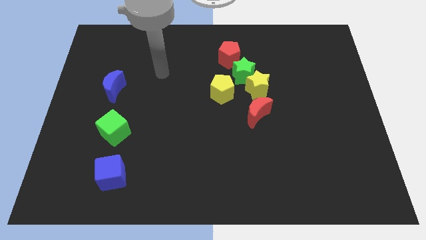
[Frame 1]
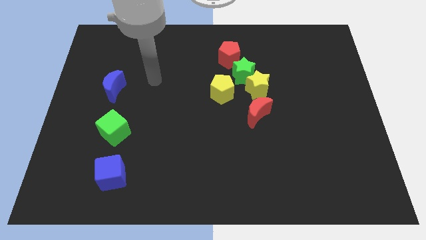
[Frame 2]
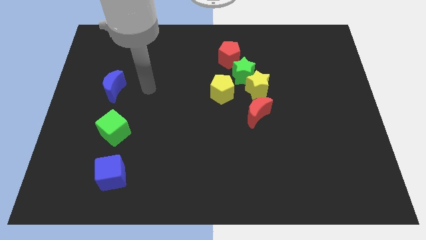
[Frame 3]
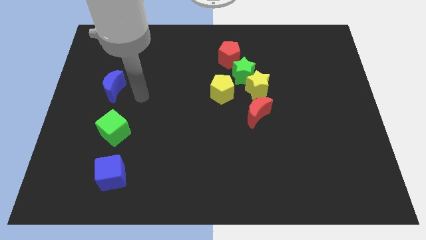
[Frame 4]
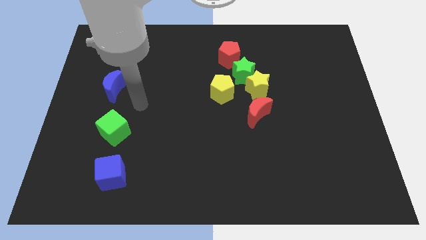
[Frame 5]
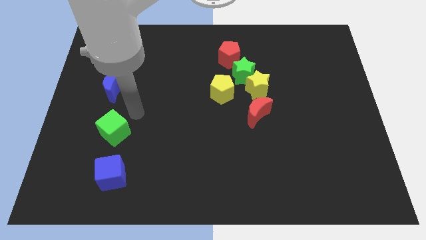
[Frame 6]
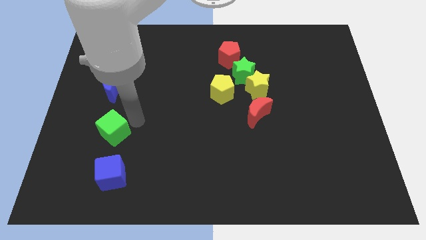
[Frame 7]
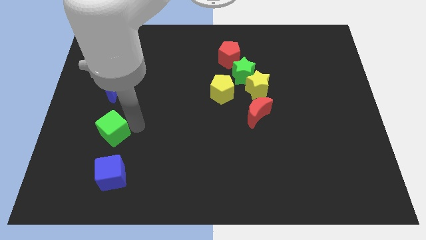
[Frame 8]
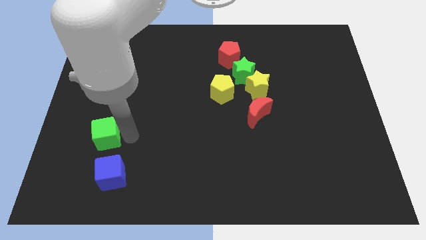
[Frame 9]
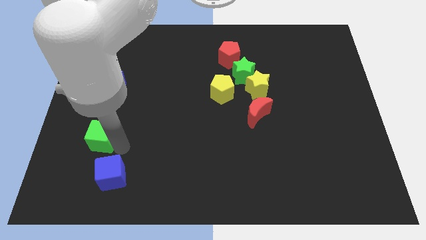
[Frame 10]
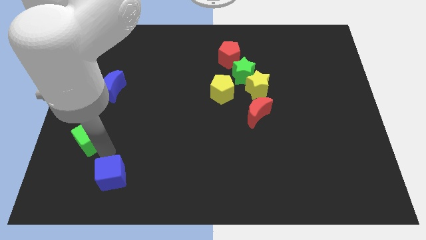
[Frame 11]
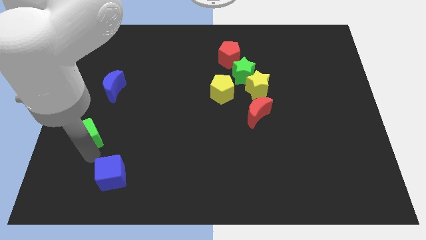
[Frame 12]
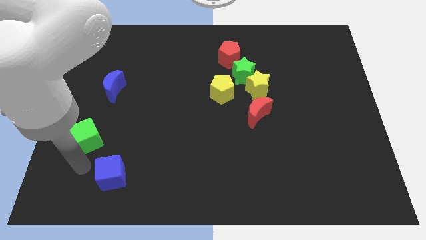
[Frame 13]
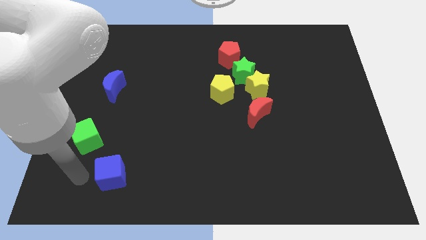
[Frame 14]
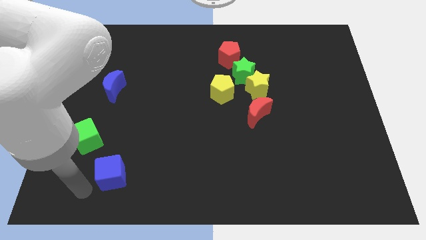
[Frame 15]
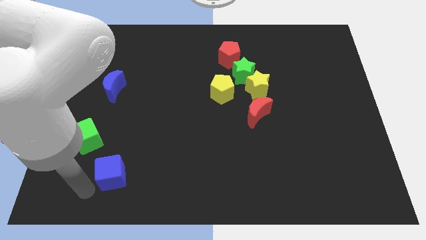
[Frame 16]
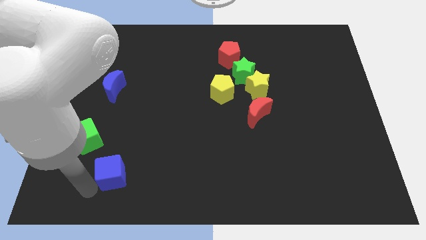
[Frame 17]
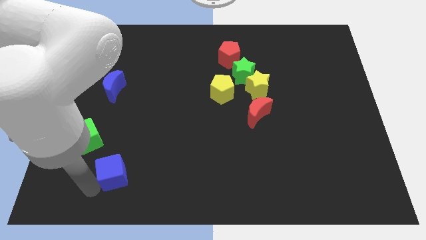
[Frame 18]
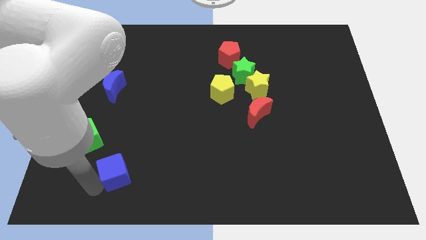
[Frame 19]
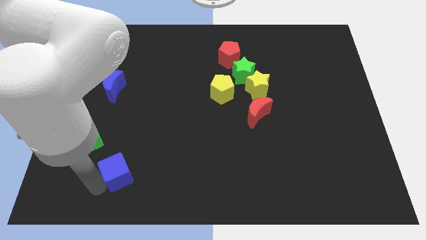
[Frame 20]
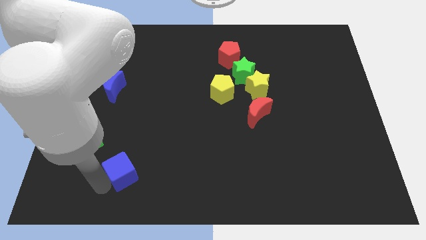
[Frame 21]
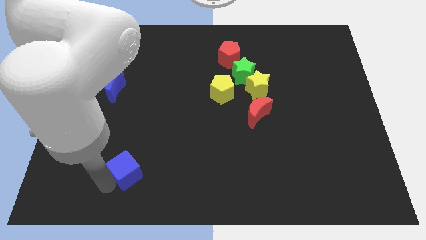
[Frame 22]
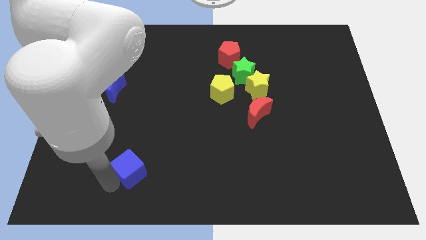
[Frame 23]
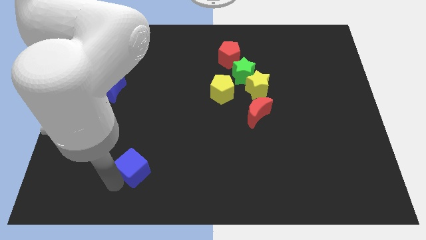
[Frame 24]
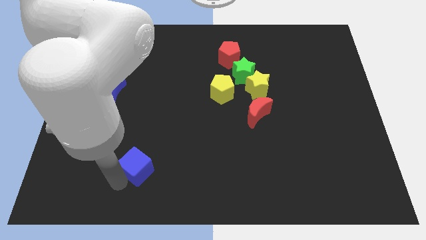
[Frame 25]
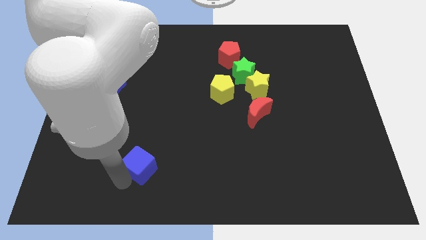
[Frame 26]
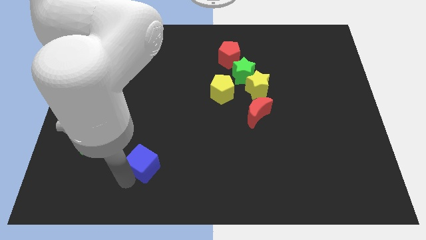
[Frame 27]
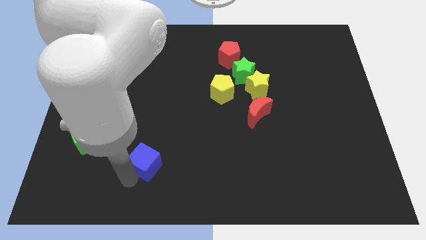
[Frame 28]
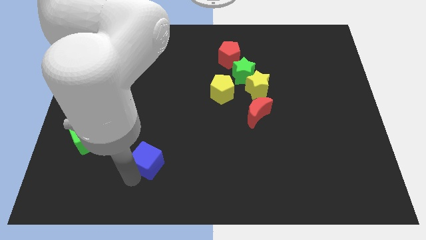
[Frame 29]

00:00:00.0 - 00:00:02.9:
move the blue cube diagonally upwards and to the right a bit

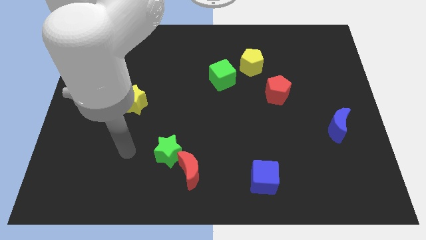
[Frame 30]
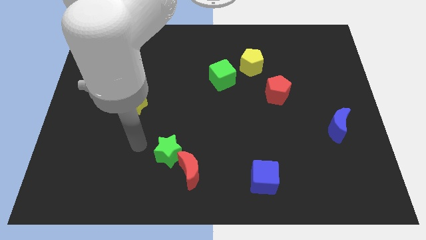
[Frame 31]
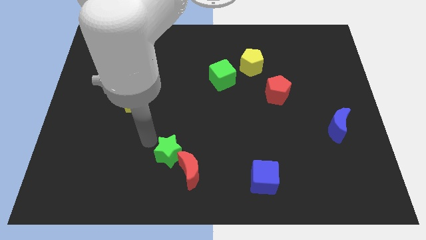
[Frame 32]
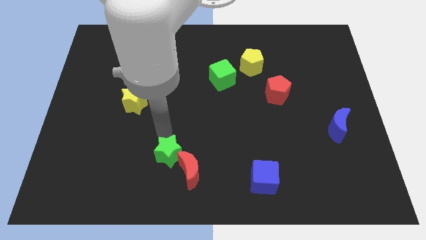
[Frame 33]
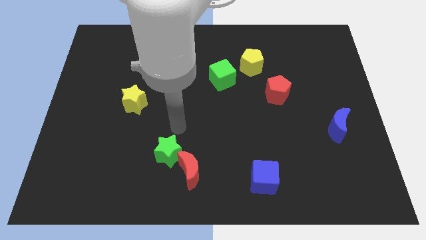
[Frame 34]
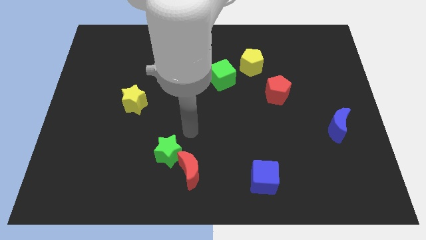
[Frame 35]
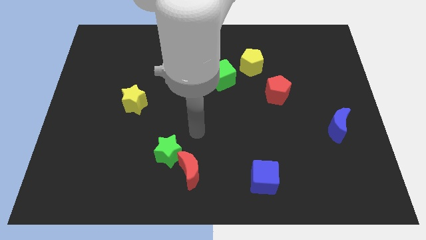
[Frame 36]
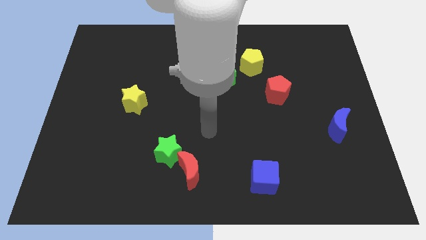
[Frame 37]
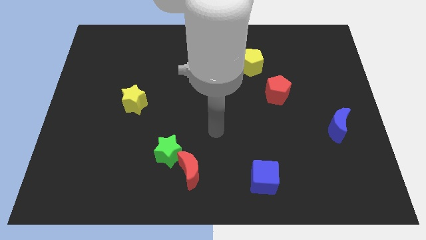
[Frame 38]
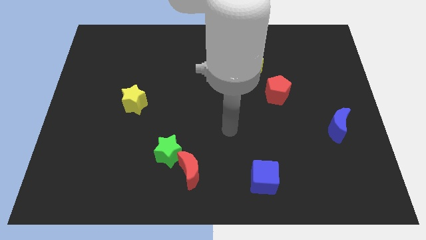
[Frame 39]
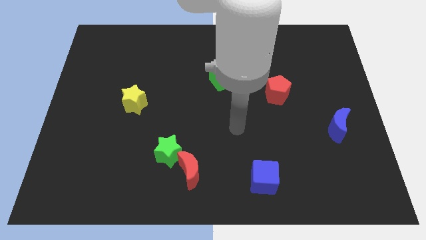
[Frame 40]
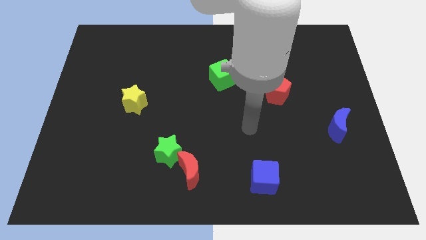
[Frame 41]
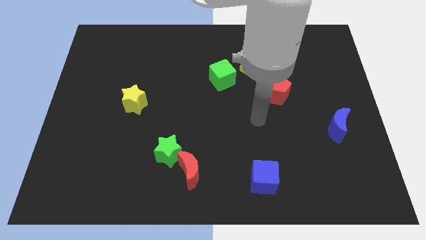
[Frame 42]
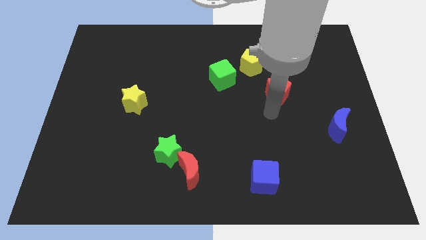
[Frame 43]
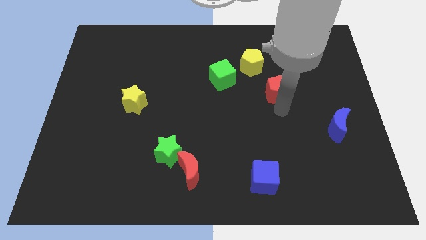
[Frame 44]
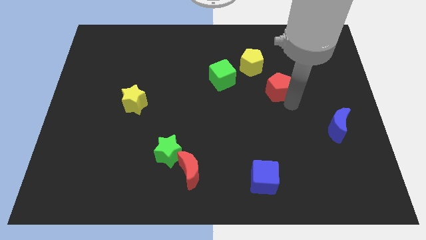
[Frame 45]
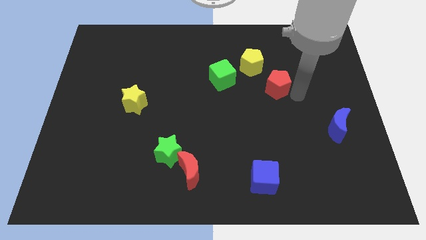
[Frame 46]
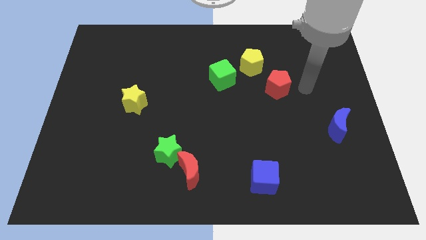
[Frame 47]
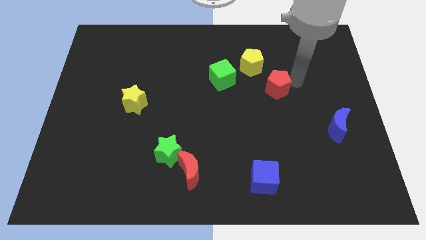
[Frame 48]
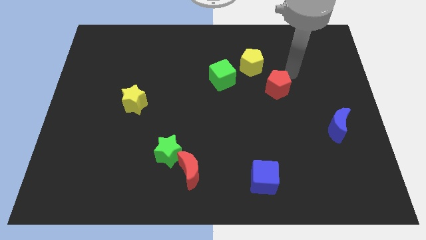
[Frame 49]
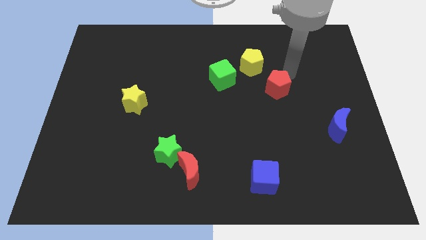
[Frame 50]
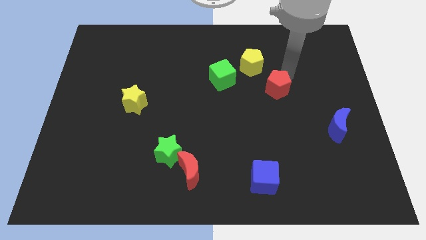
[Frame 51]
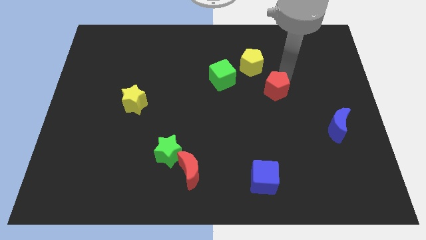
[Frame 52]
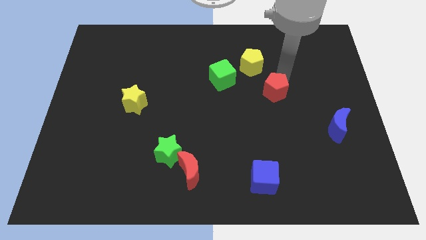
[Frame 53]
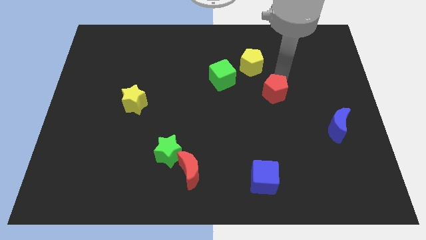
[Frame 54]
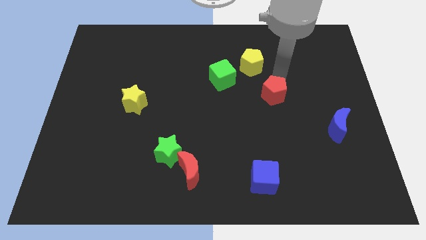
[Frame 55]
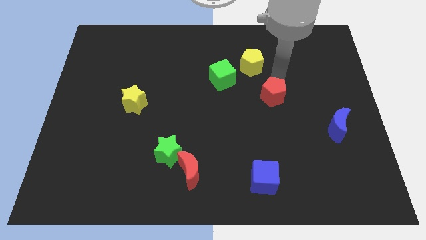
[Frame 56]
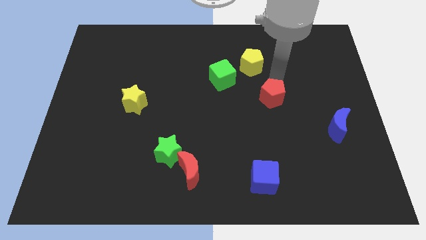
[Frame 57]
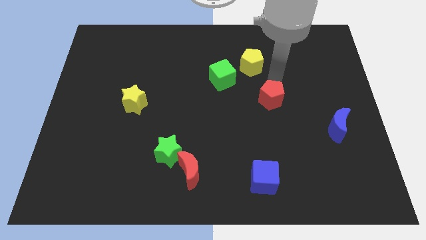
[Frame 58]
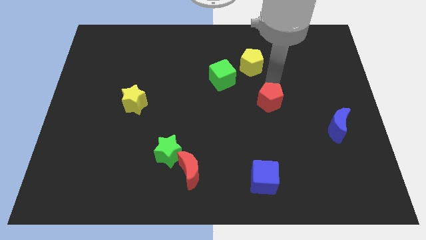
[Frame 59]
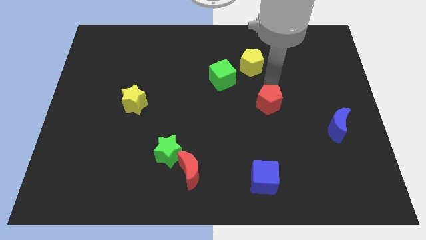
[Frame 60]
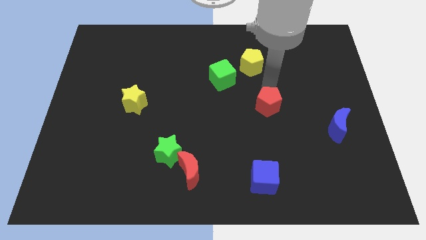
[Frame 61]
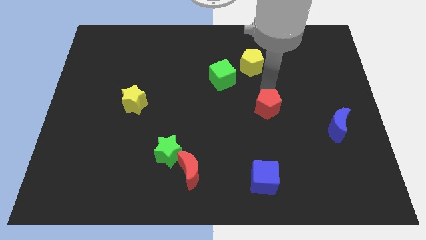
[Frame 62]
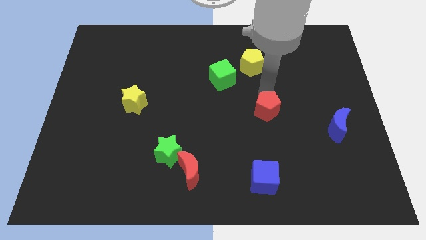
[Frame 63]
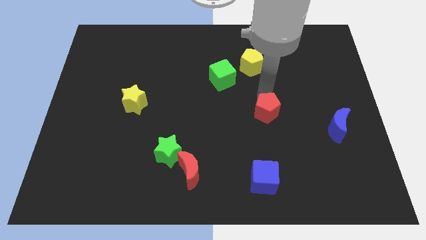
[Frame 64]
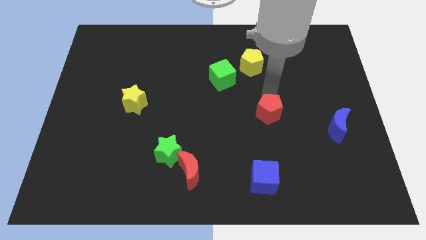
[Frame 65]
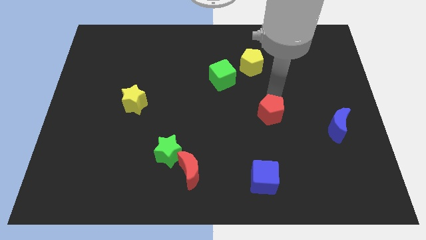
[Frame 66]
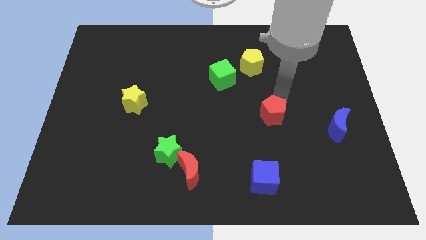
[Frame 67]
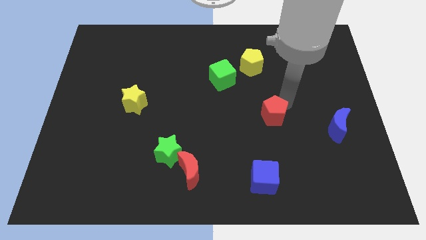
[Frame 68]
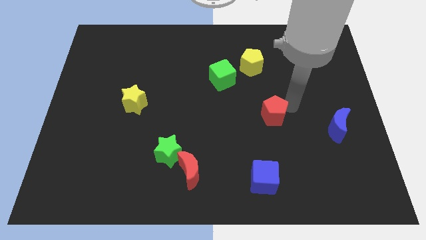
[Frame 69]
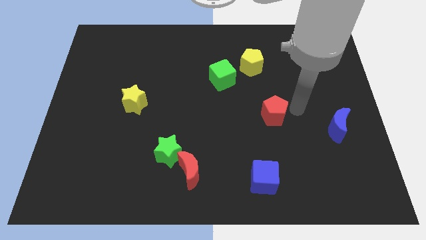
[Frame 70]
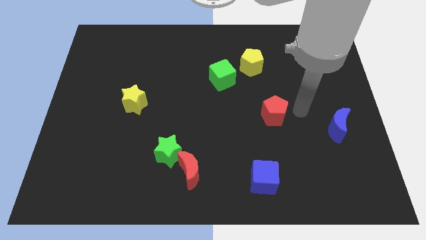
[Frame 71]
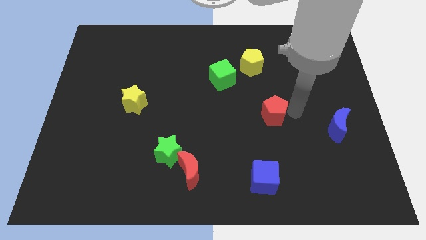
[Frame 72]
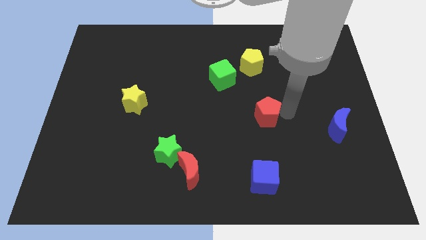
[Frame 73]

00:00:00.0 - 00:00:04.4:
slide the red pentagon a bit down and to the left diagonally

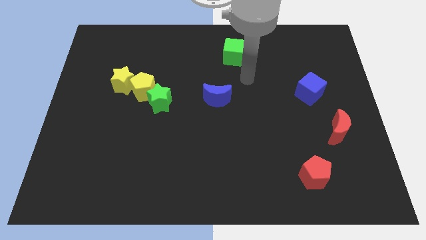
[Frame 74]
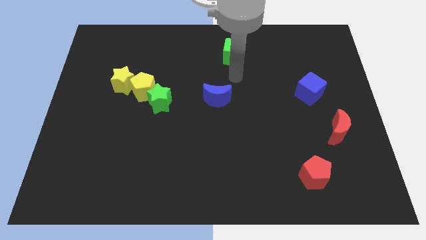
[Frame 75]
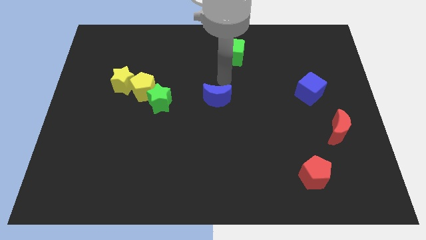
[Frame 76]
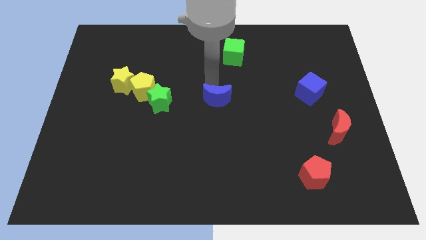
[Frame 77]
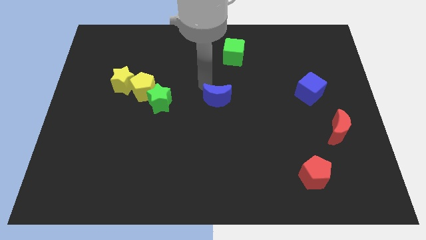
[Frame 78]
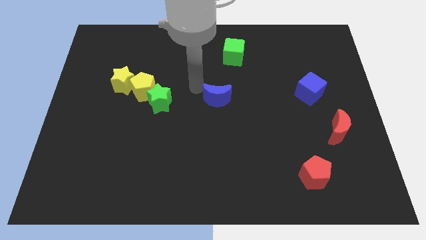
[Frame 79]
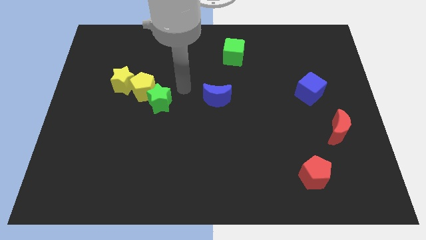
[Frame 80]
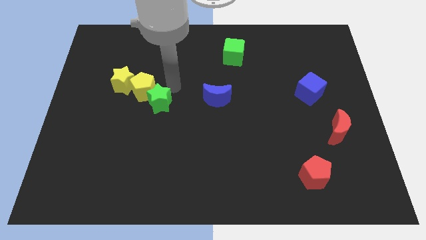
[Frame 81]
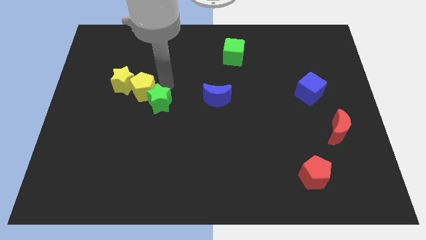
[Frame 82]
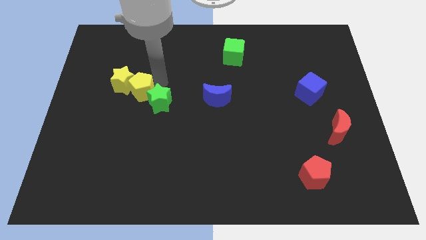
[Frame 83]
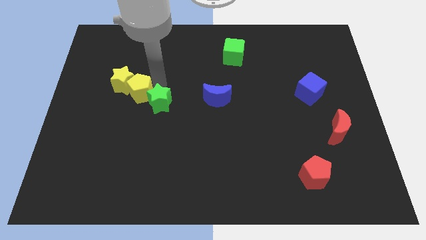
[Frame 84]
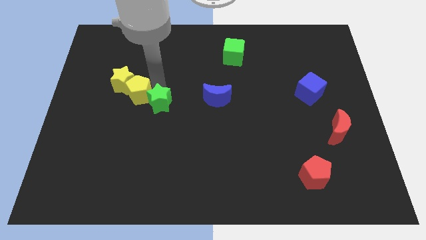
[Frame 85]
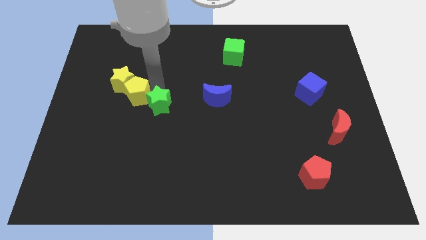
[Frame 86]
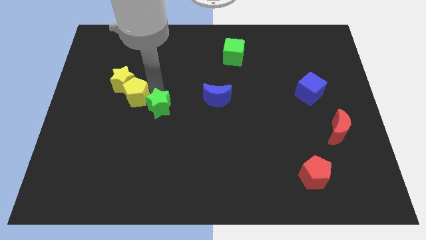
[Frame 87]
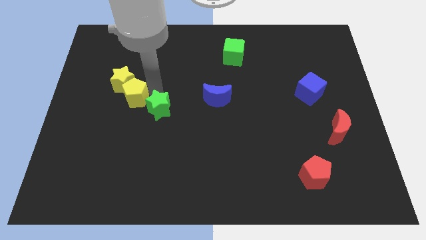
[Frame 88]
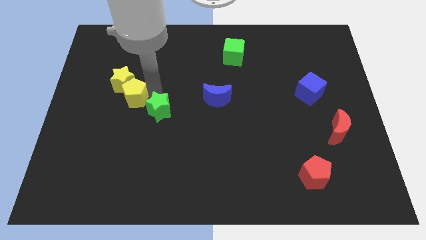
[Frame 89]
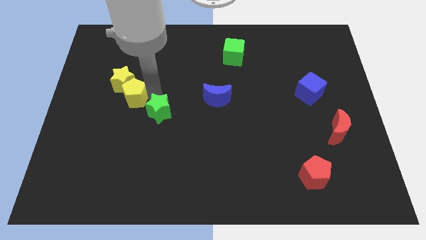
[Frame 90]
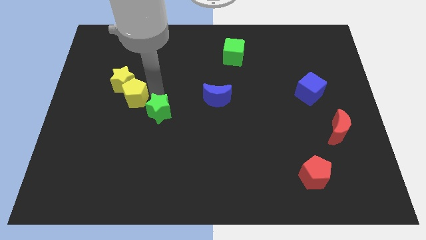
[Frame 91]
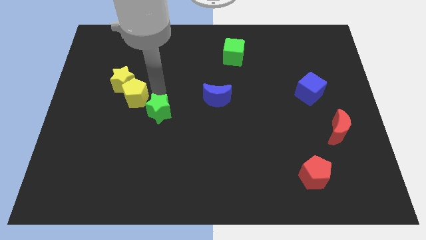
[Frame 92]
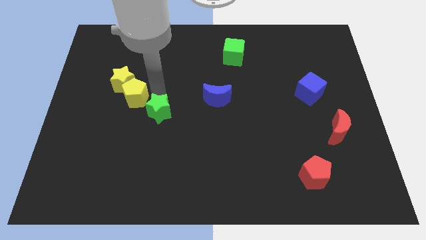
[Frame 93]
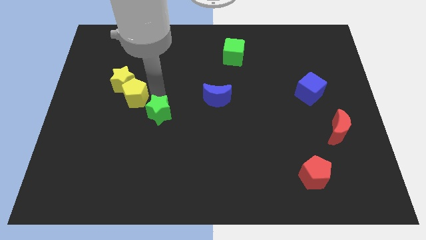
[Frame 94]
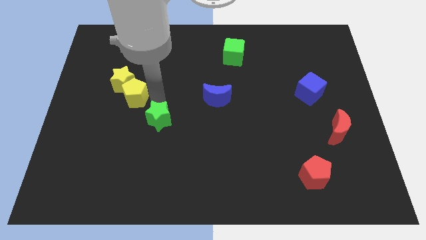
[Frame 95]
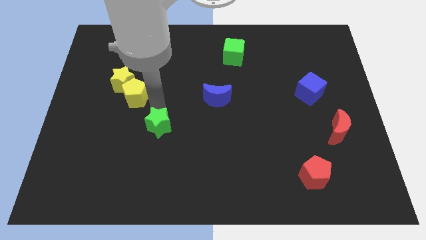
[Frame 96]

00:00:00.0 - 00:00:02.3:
slide the green star a bit downwards
